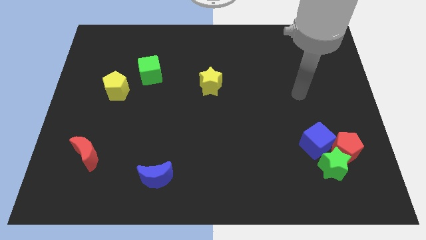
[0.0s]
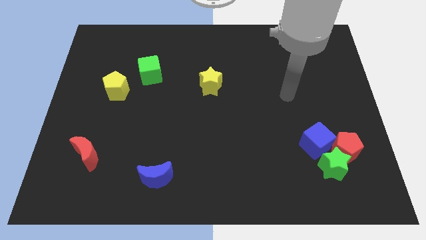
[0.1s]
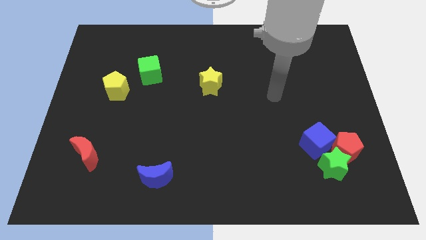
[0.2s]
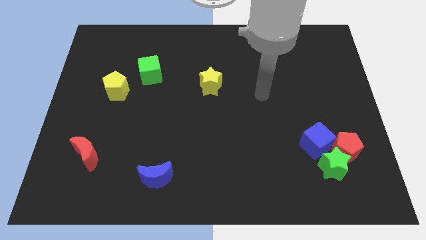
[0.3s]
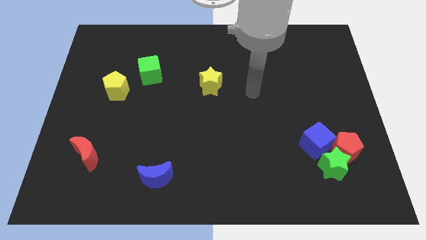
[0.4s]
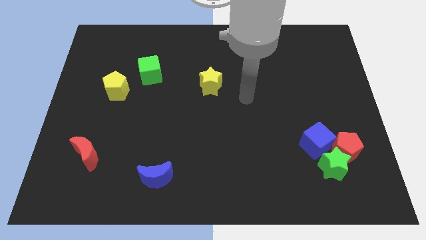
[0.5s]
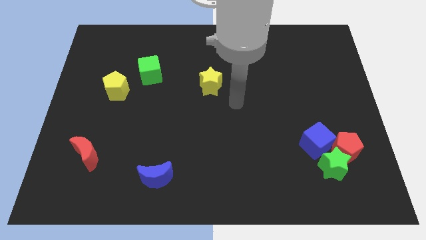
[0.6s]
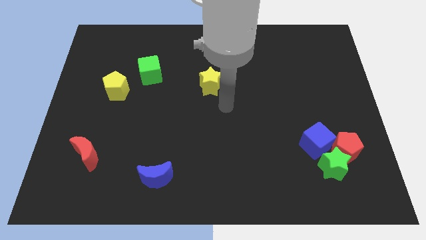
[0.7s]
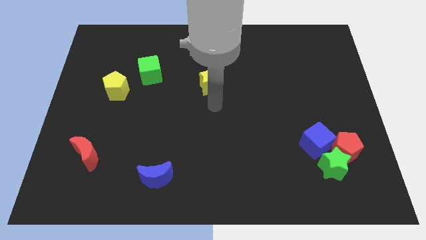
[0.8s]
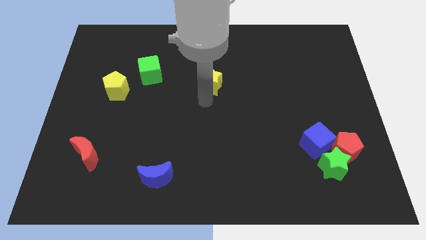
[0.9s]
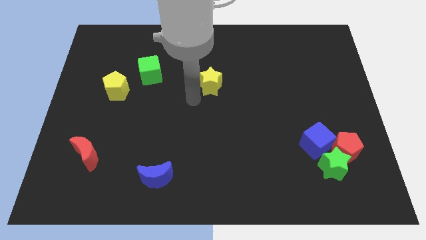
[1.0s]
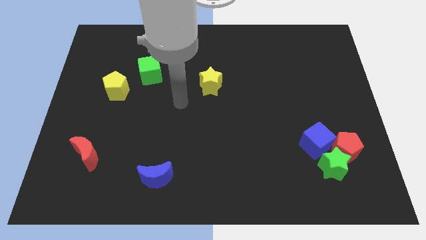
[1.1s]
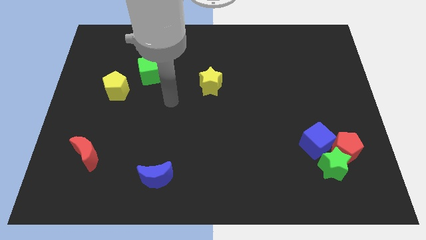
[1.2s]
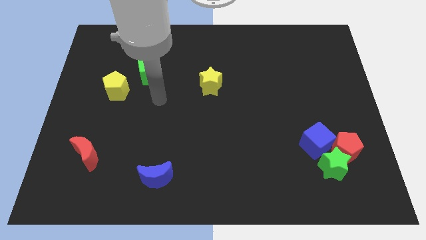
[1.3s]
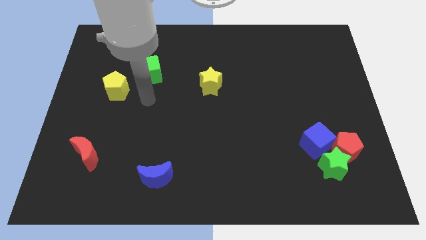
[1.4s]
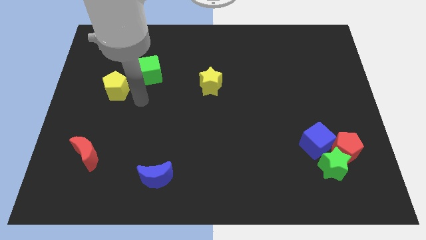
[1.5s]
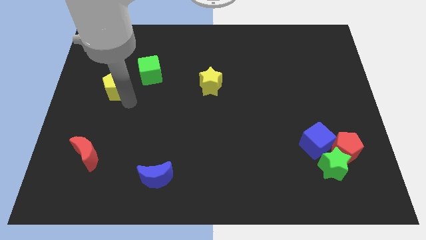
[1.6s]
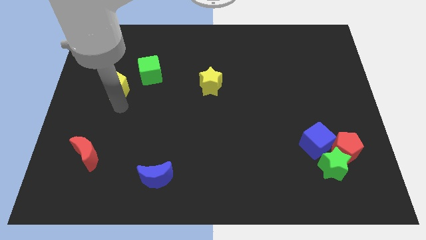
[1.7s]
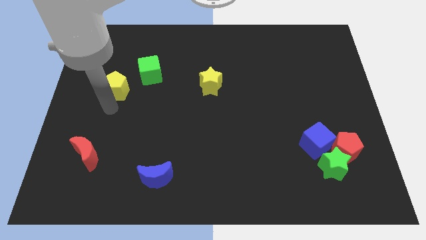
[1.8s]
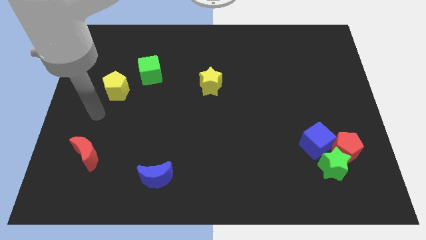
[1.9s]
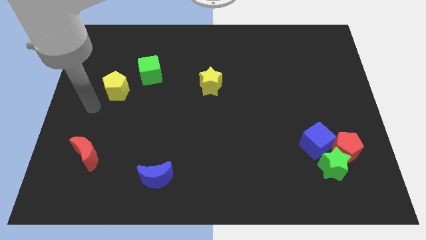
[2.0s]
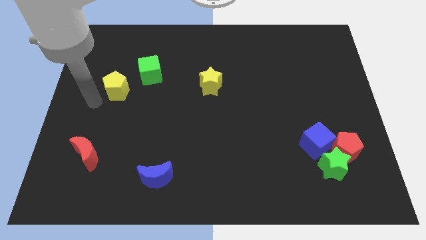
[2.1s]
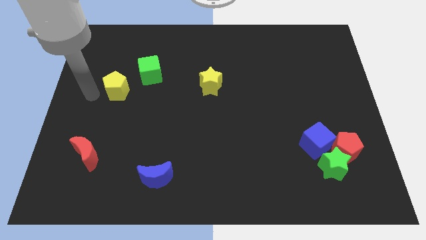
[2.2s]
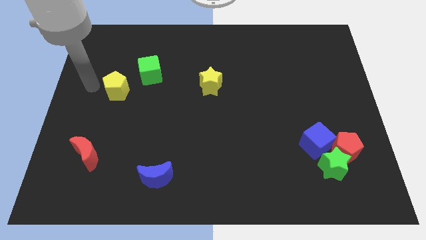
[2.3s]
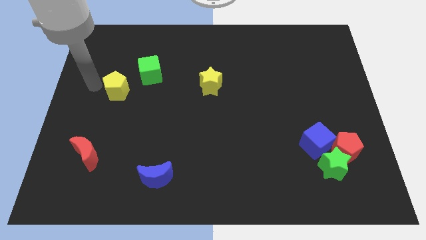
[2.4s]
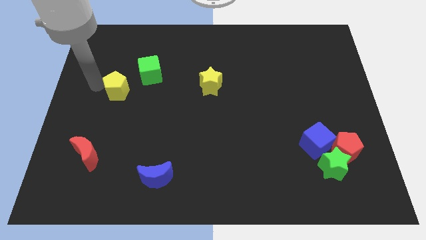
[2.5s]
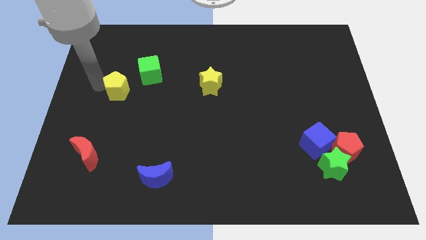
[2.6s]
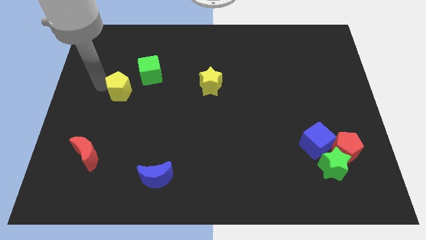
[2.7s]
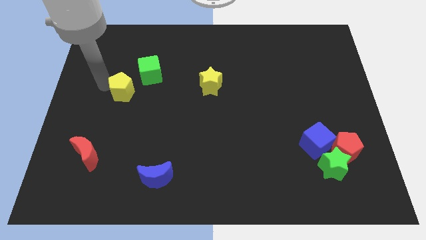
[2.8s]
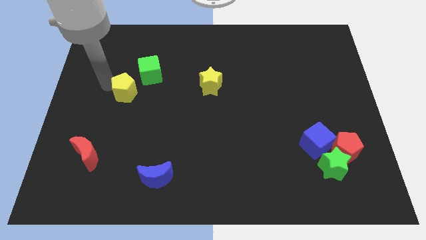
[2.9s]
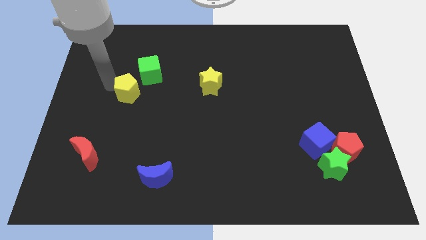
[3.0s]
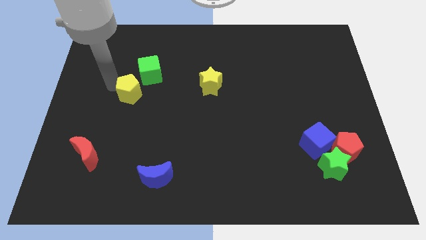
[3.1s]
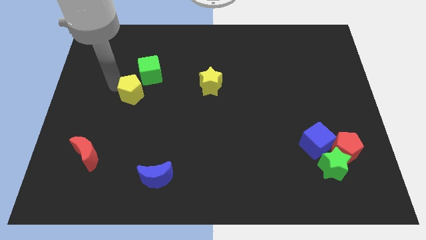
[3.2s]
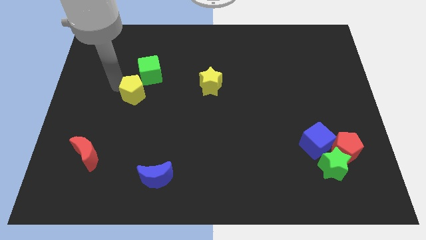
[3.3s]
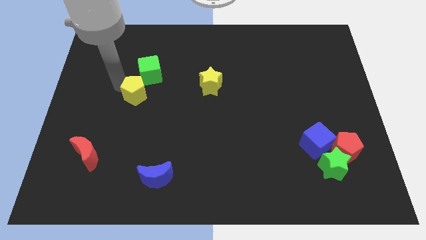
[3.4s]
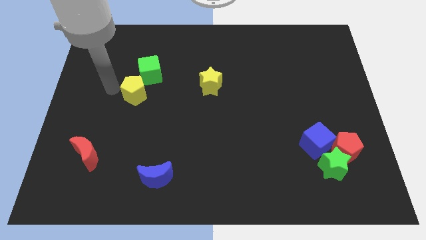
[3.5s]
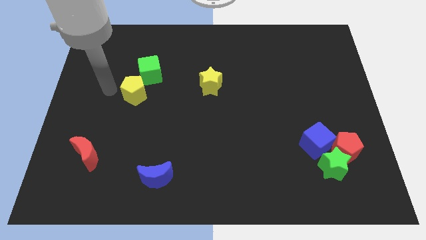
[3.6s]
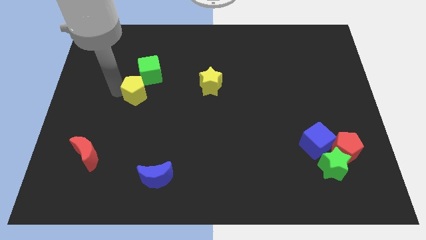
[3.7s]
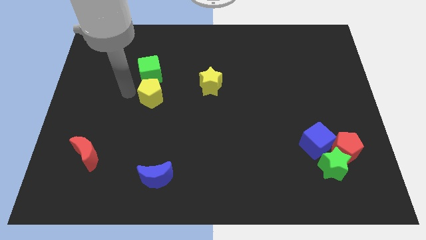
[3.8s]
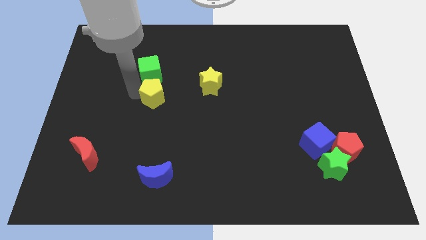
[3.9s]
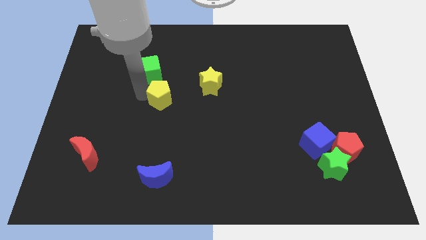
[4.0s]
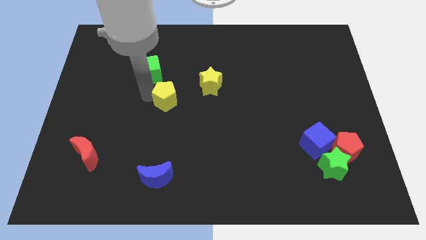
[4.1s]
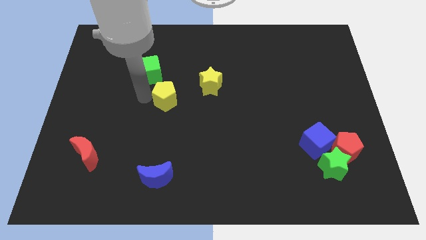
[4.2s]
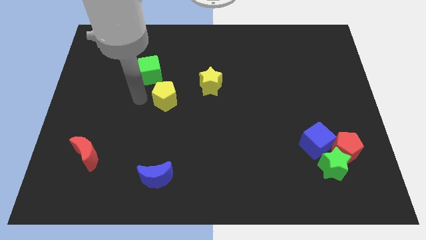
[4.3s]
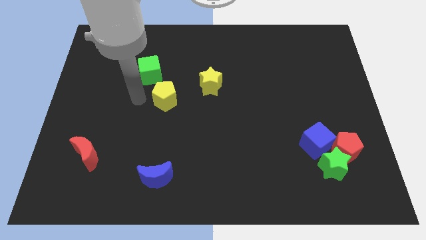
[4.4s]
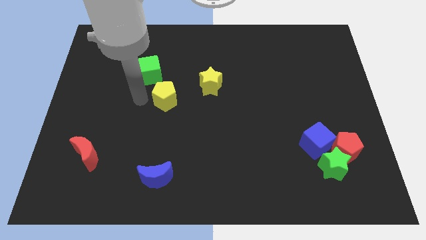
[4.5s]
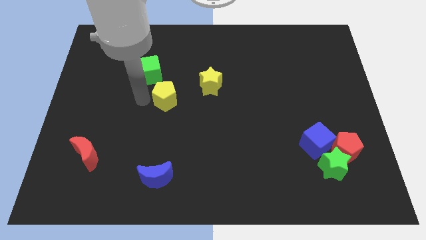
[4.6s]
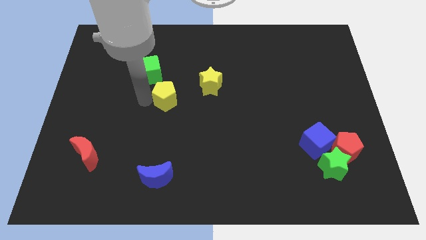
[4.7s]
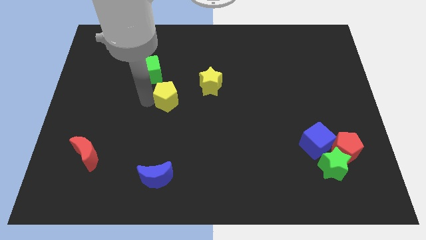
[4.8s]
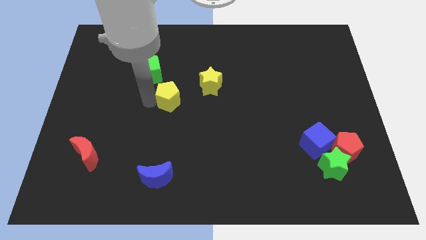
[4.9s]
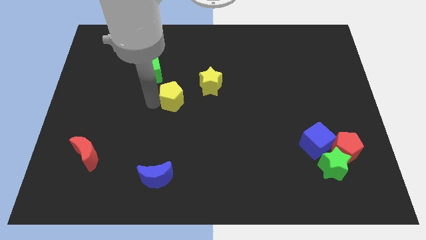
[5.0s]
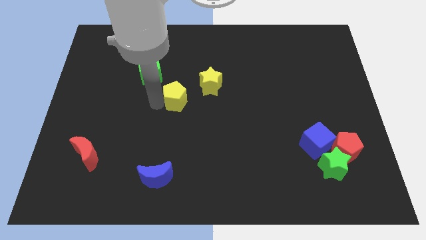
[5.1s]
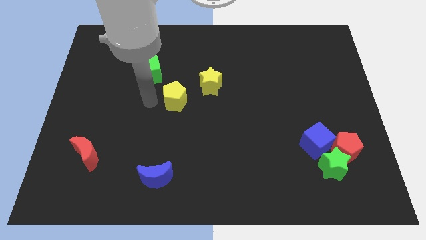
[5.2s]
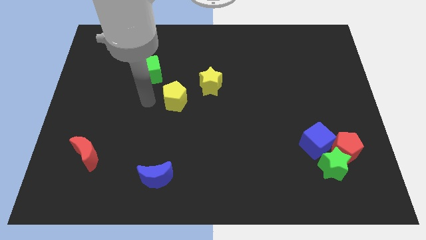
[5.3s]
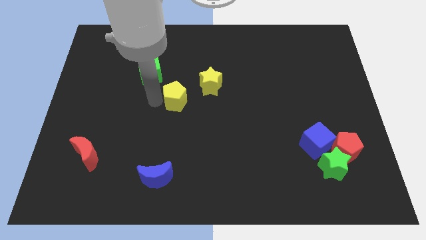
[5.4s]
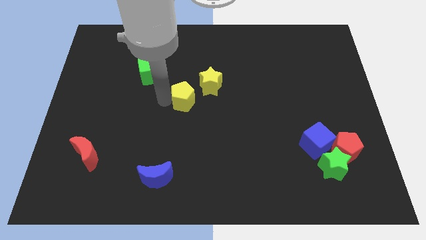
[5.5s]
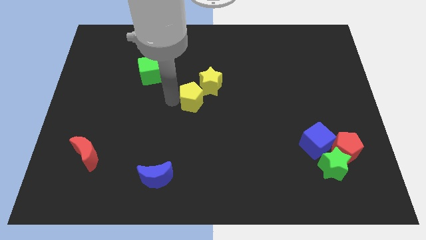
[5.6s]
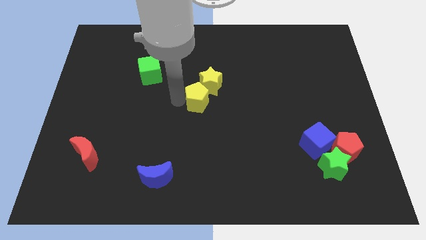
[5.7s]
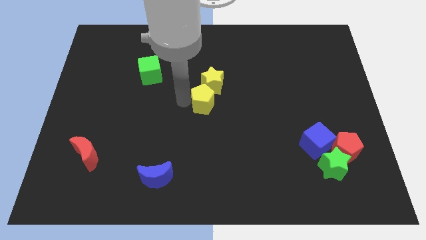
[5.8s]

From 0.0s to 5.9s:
push the yellow pentagon right

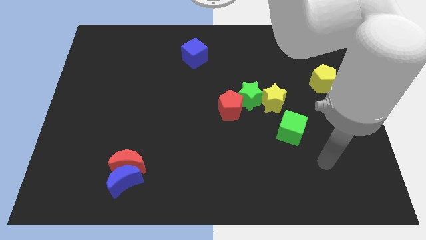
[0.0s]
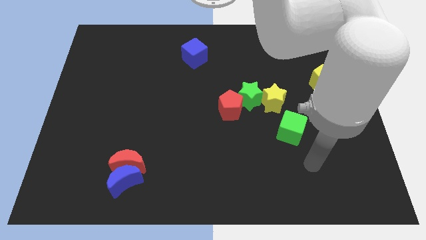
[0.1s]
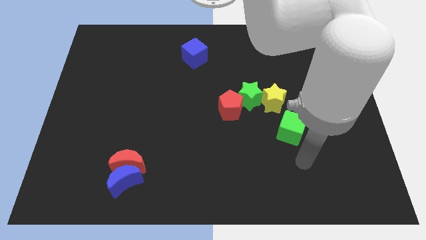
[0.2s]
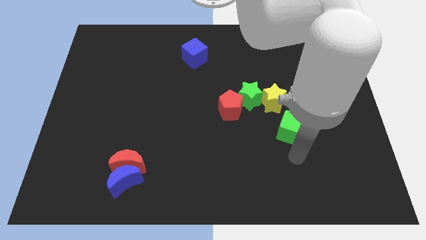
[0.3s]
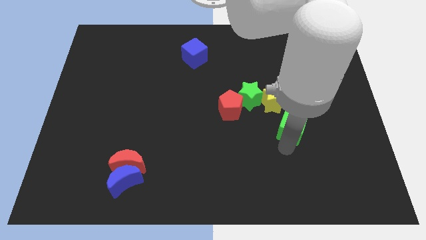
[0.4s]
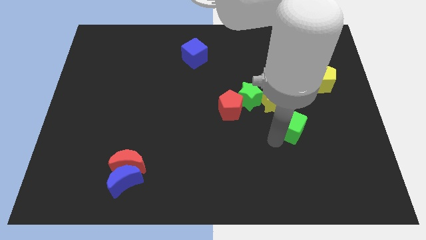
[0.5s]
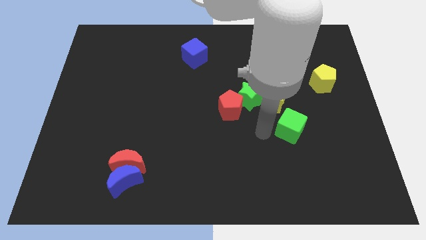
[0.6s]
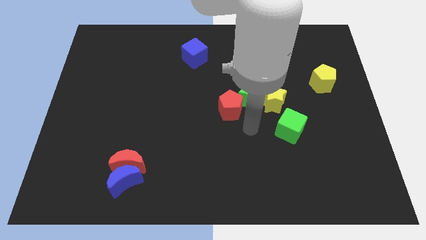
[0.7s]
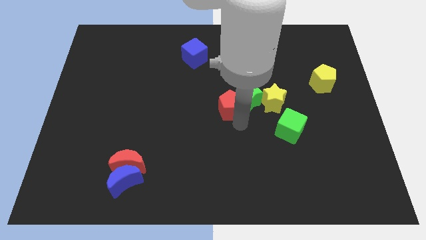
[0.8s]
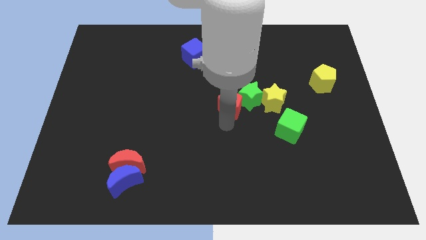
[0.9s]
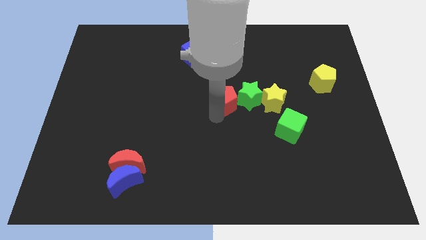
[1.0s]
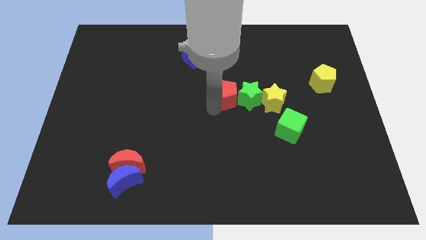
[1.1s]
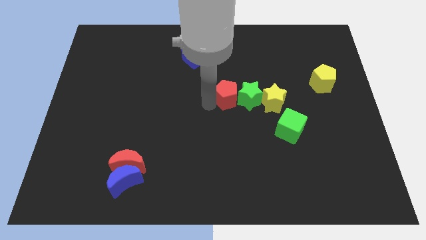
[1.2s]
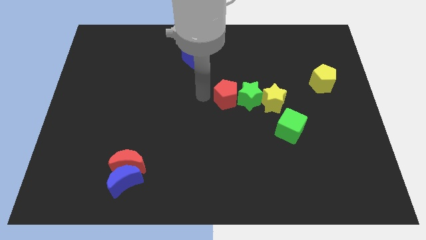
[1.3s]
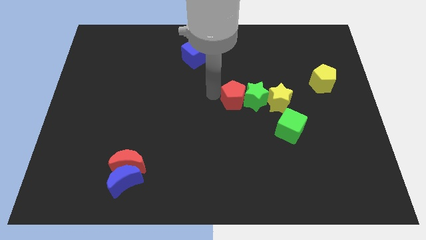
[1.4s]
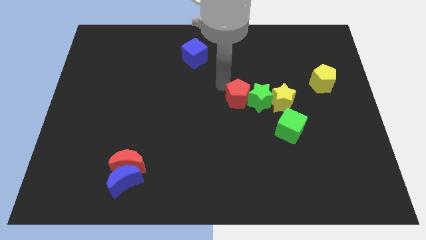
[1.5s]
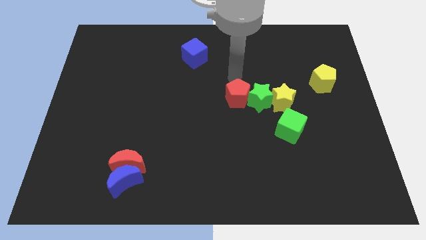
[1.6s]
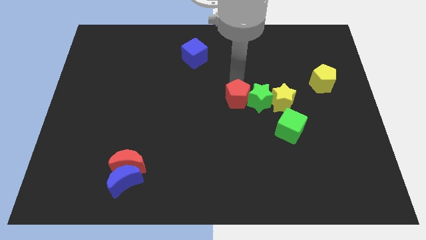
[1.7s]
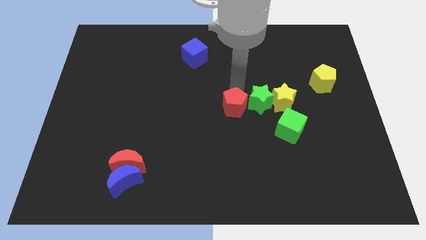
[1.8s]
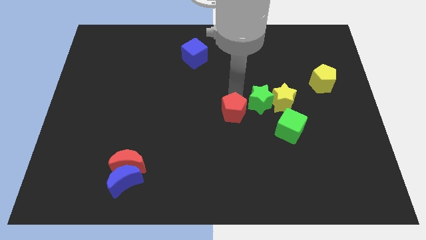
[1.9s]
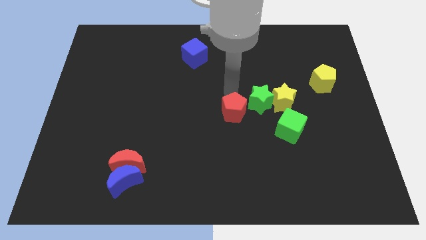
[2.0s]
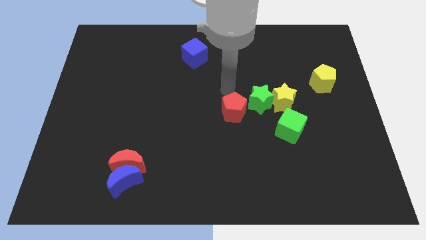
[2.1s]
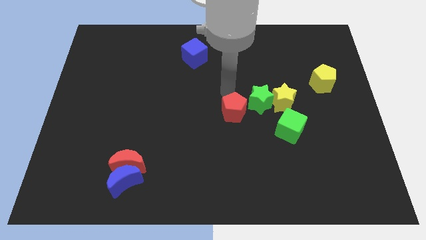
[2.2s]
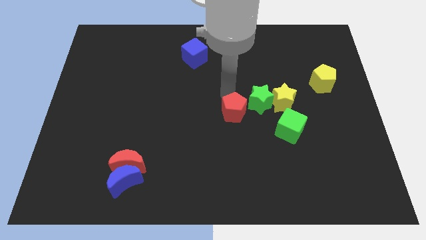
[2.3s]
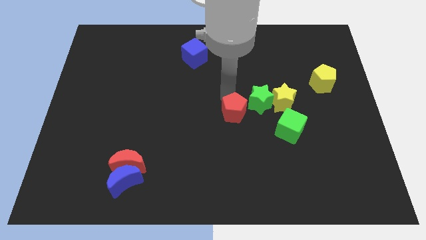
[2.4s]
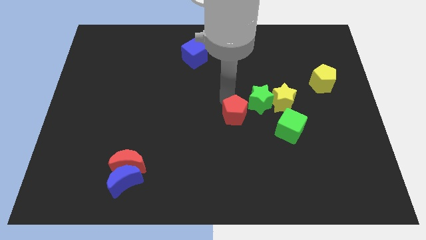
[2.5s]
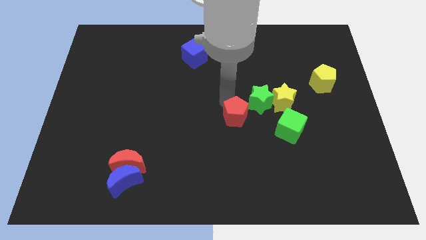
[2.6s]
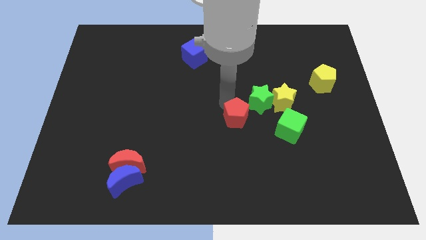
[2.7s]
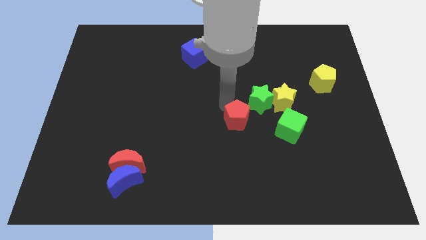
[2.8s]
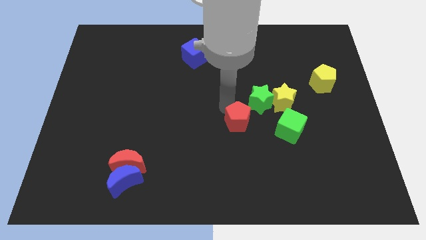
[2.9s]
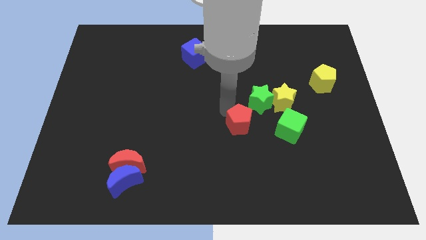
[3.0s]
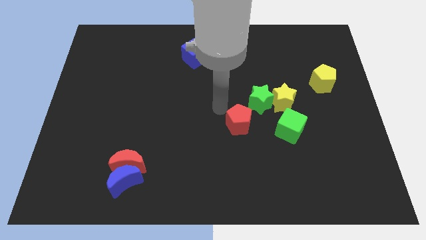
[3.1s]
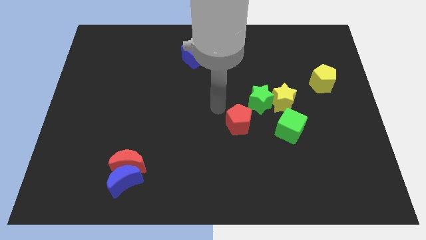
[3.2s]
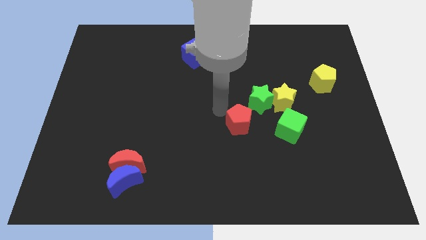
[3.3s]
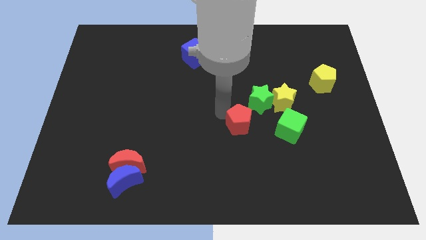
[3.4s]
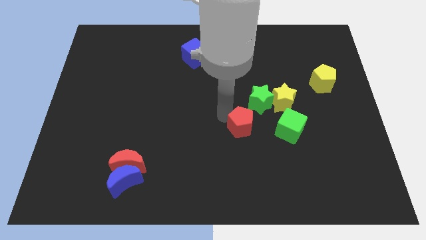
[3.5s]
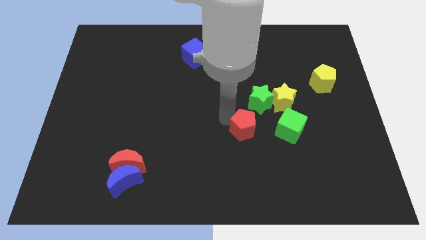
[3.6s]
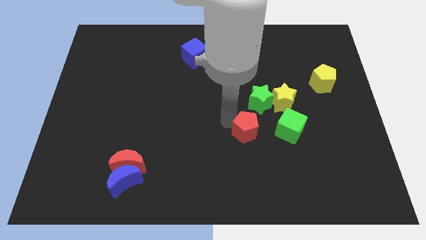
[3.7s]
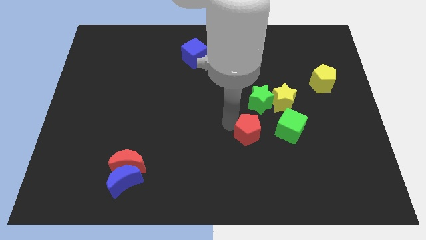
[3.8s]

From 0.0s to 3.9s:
slightly push the red pentagon down and then to the right
